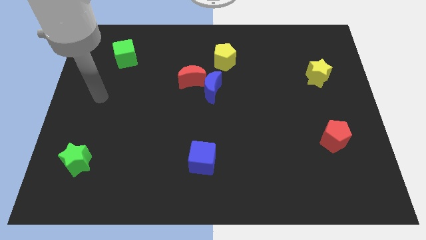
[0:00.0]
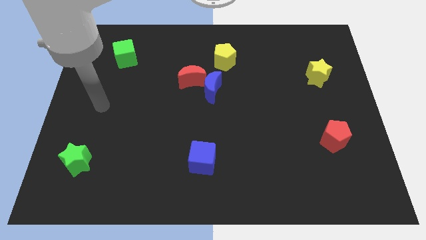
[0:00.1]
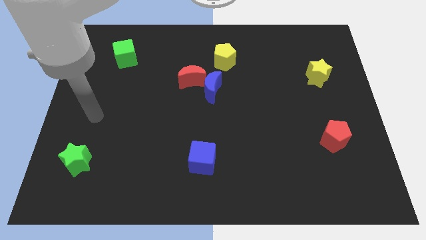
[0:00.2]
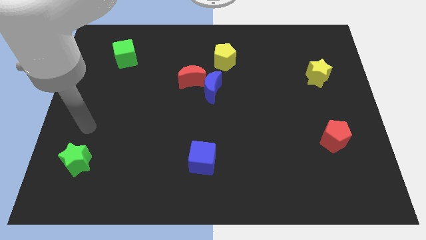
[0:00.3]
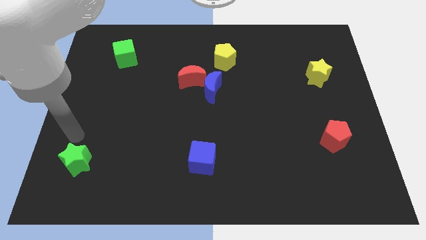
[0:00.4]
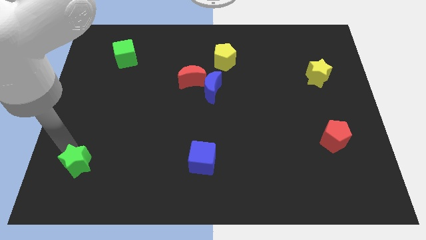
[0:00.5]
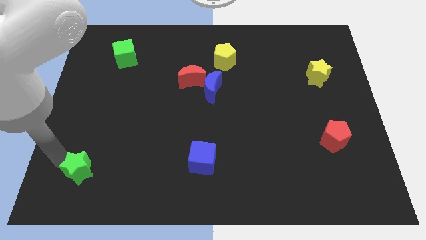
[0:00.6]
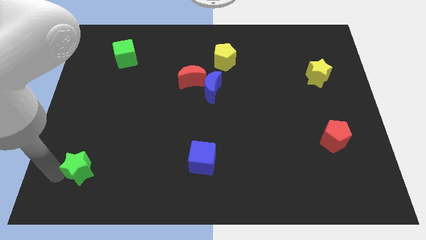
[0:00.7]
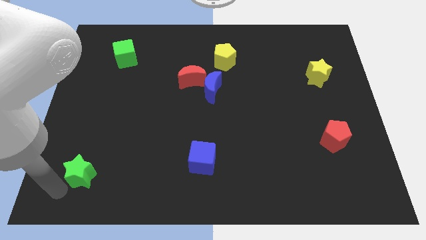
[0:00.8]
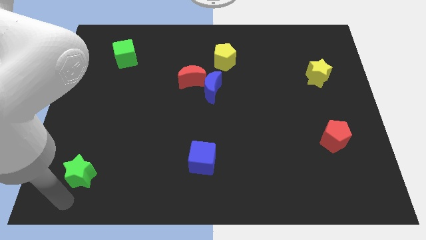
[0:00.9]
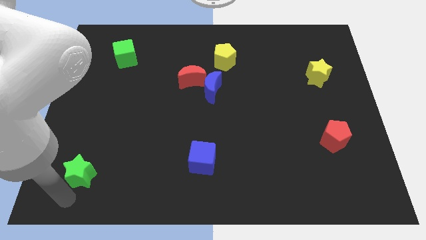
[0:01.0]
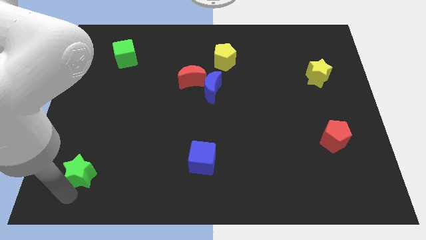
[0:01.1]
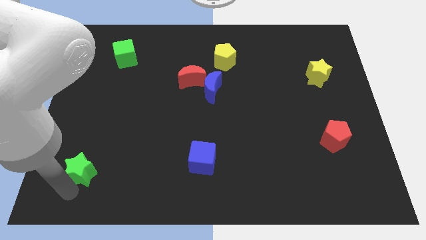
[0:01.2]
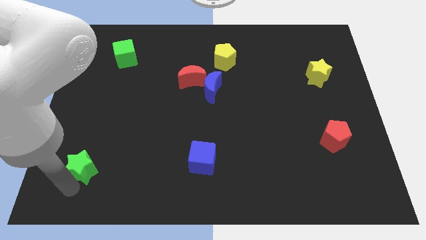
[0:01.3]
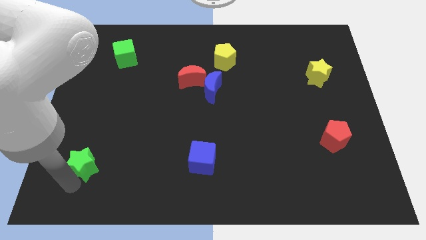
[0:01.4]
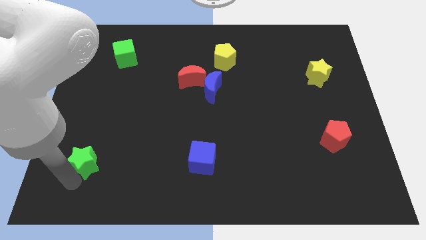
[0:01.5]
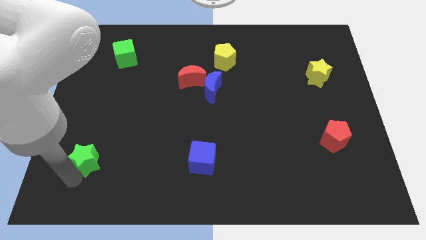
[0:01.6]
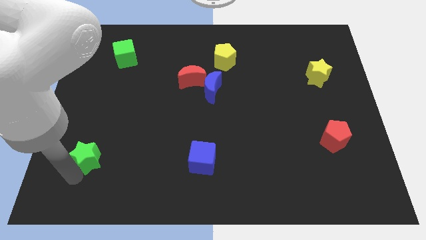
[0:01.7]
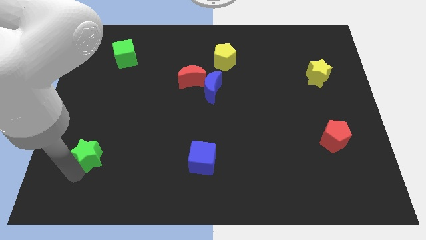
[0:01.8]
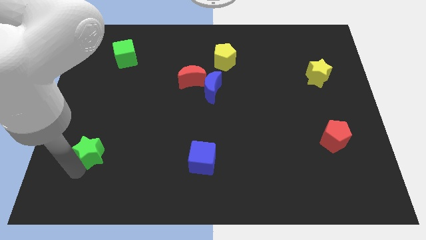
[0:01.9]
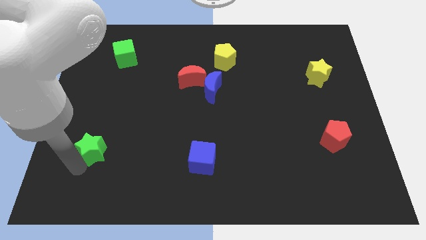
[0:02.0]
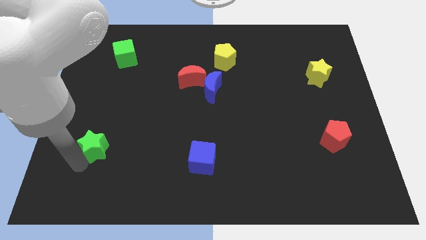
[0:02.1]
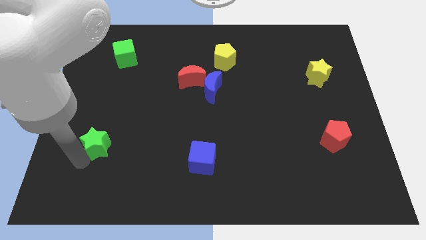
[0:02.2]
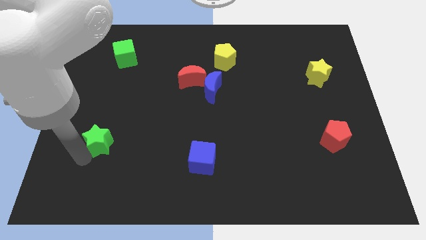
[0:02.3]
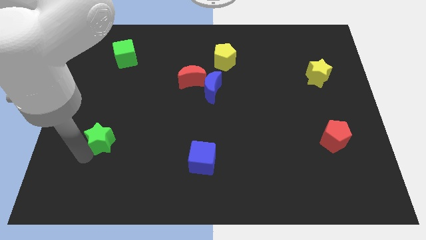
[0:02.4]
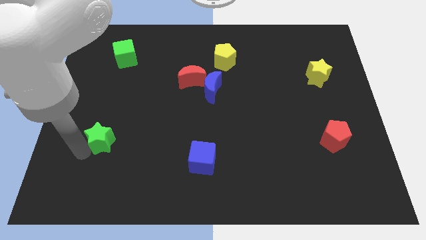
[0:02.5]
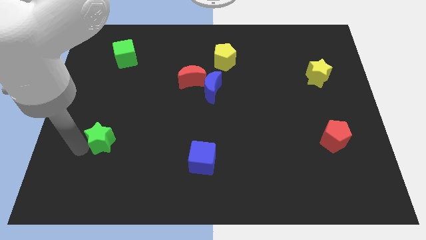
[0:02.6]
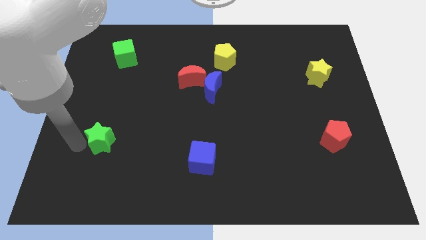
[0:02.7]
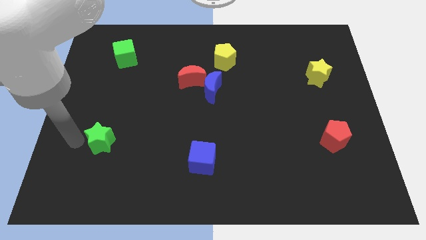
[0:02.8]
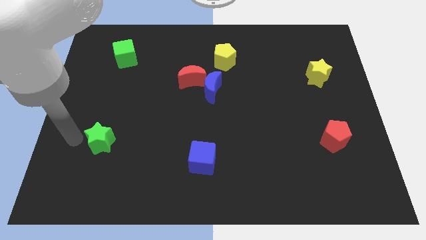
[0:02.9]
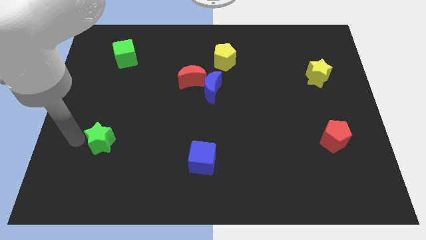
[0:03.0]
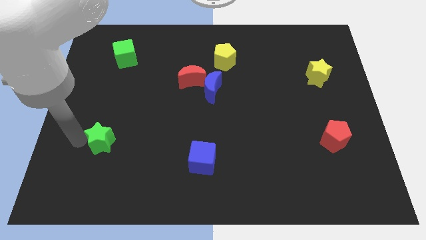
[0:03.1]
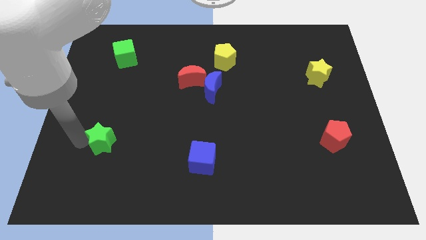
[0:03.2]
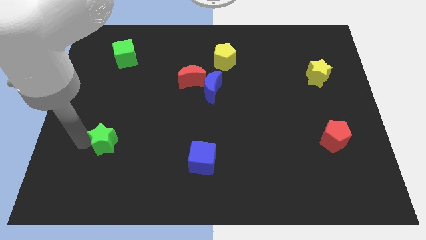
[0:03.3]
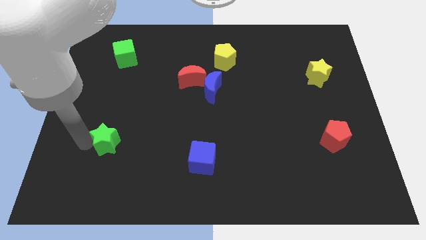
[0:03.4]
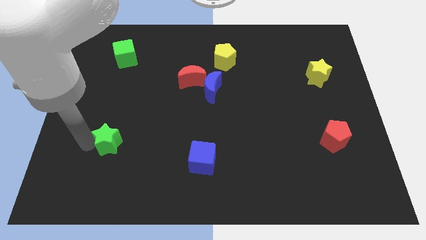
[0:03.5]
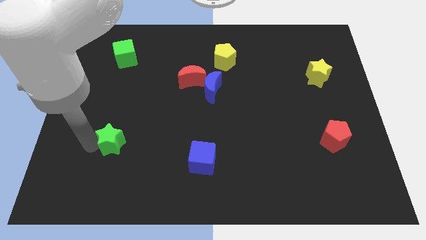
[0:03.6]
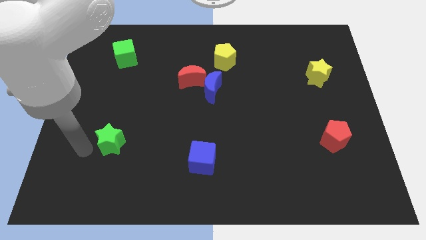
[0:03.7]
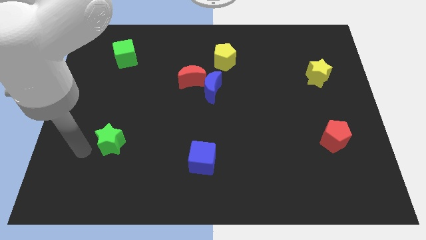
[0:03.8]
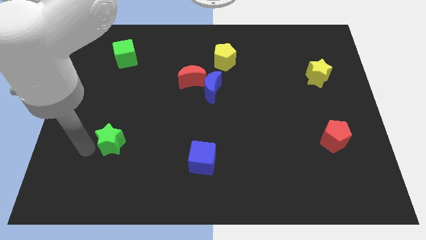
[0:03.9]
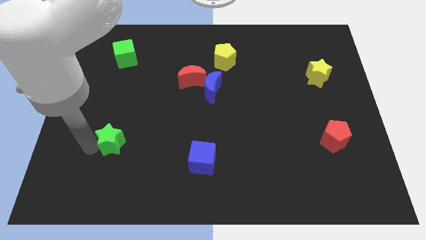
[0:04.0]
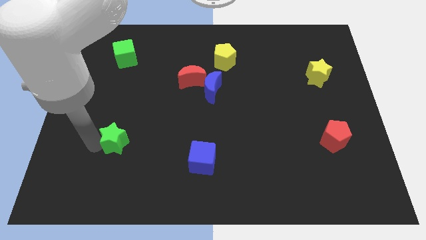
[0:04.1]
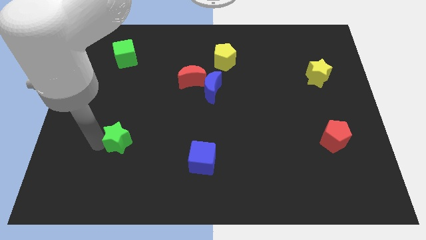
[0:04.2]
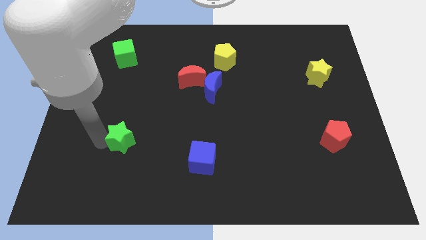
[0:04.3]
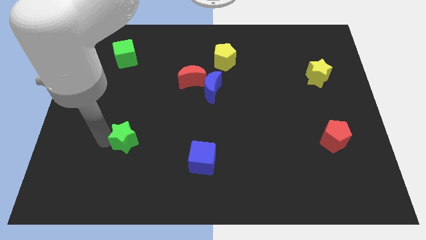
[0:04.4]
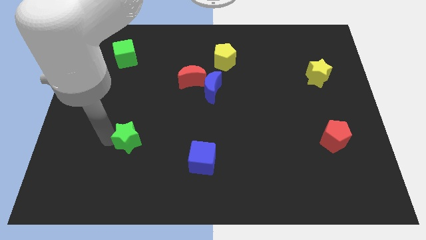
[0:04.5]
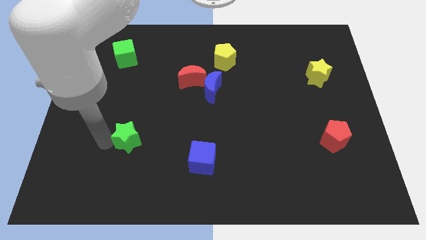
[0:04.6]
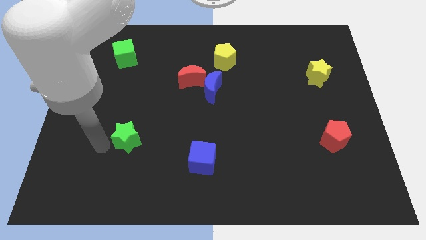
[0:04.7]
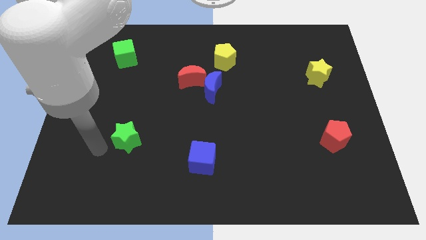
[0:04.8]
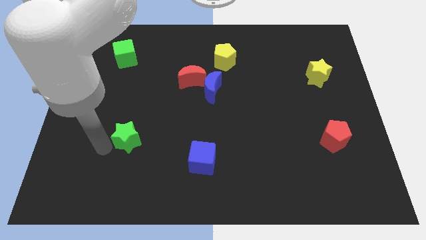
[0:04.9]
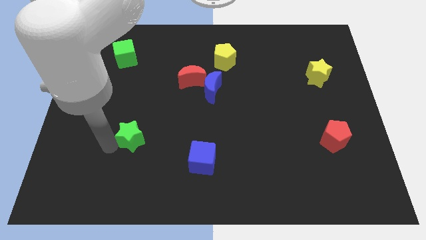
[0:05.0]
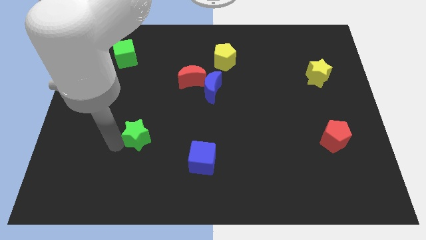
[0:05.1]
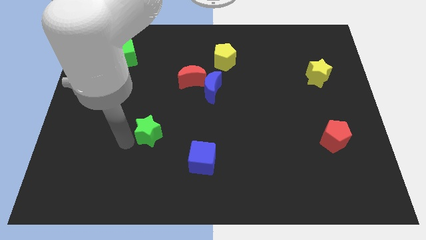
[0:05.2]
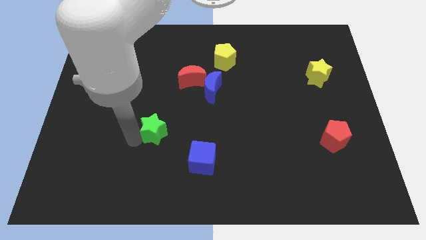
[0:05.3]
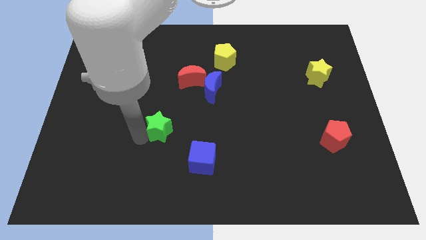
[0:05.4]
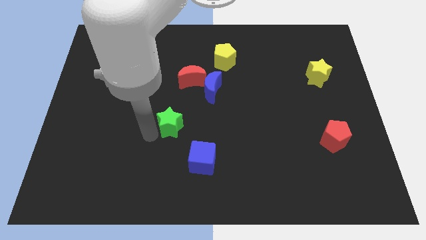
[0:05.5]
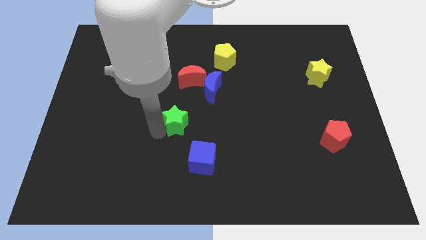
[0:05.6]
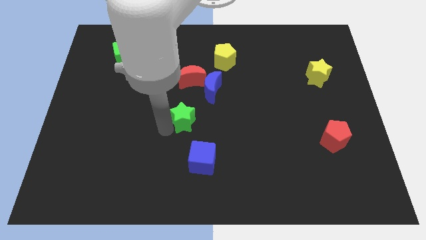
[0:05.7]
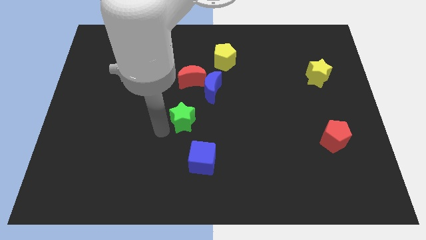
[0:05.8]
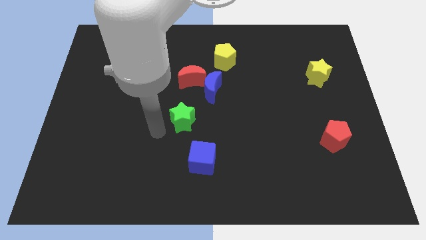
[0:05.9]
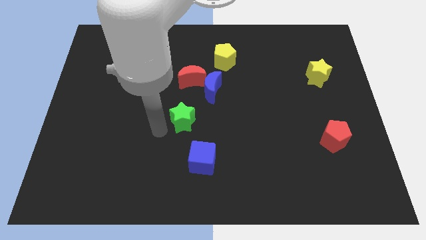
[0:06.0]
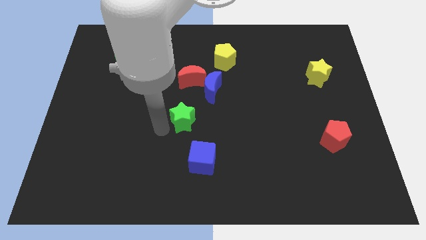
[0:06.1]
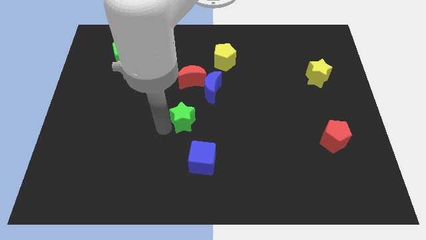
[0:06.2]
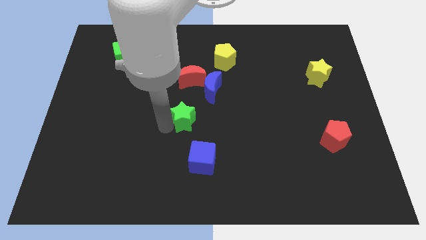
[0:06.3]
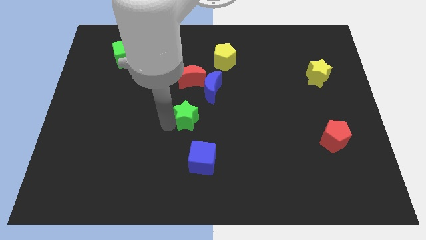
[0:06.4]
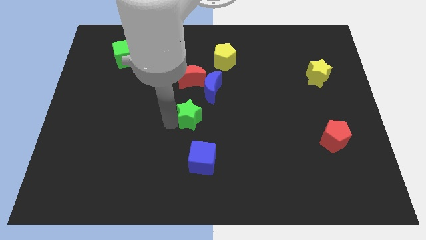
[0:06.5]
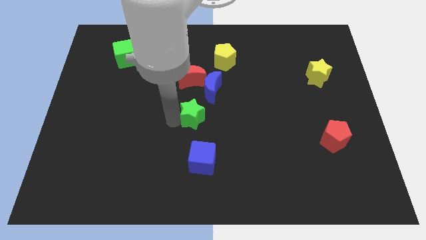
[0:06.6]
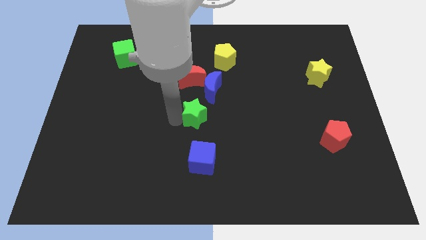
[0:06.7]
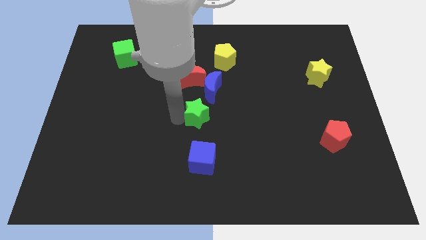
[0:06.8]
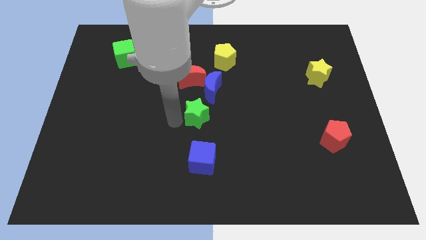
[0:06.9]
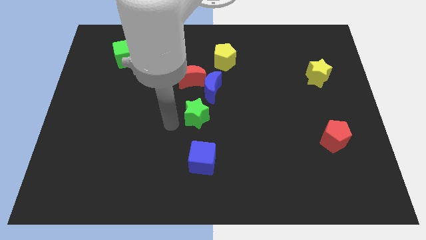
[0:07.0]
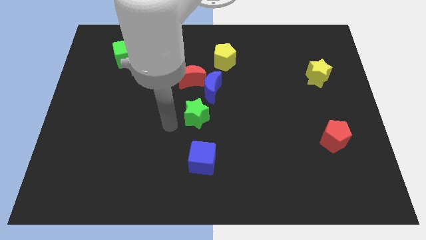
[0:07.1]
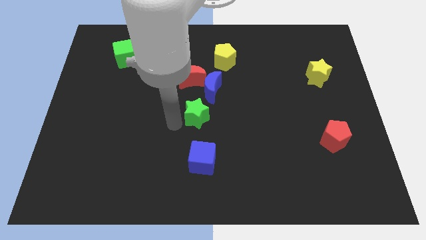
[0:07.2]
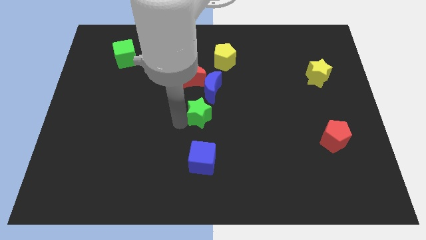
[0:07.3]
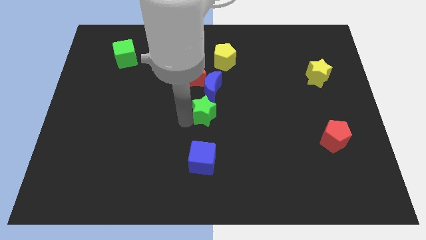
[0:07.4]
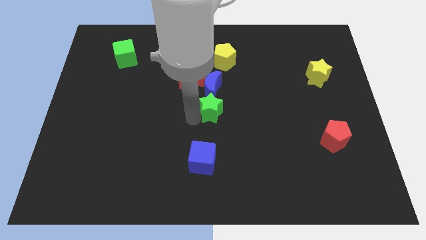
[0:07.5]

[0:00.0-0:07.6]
slide the green star to the bottom right side of the blue moon
